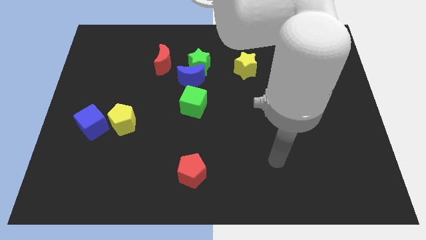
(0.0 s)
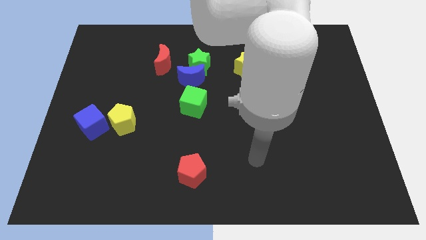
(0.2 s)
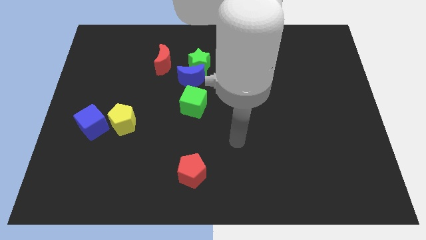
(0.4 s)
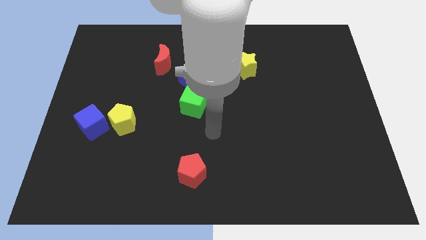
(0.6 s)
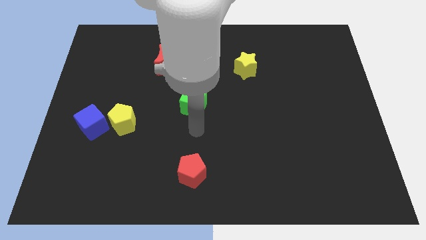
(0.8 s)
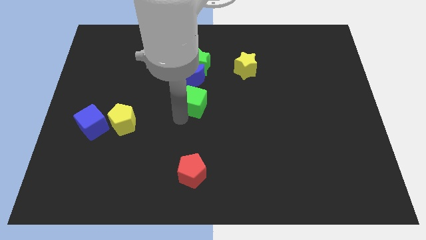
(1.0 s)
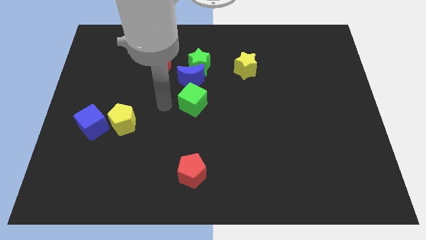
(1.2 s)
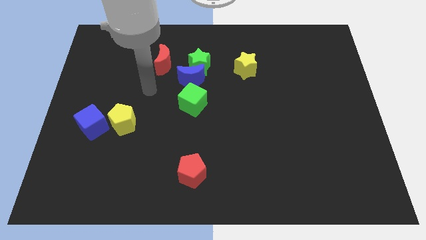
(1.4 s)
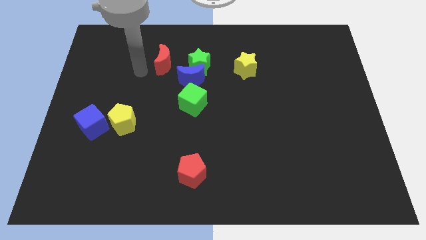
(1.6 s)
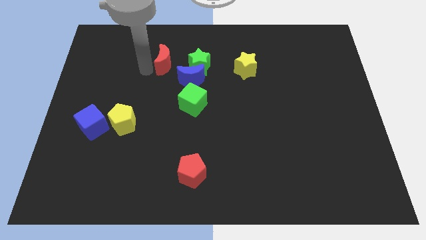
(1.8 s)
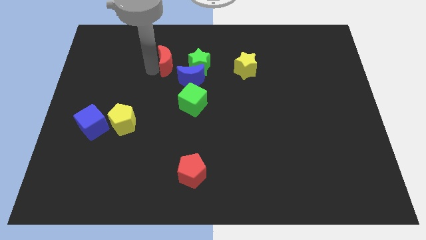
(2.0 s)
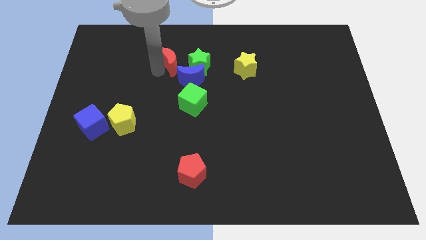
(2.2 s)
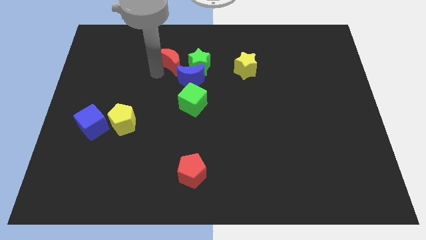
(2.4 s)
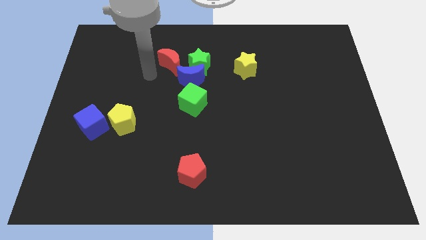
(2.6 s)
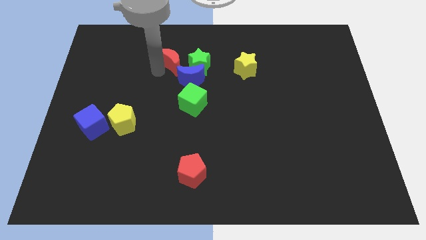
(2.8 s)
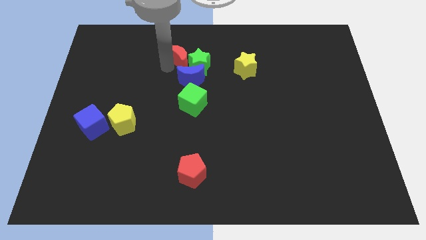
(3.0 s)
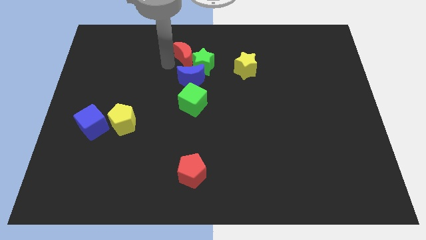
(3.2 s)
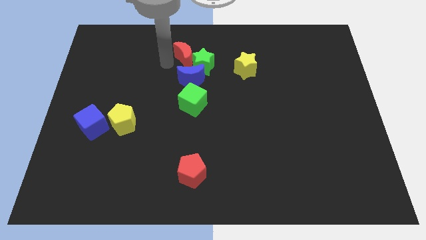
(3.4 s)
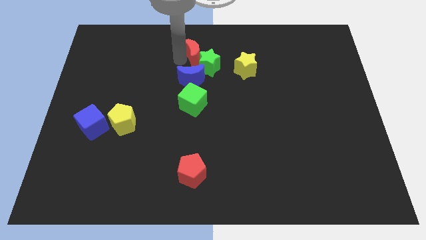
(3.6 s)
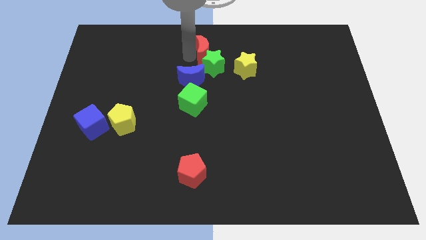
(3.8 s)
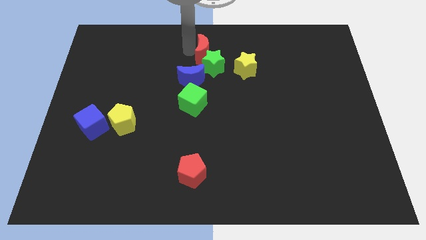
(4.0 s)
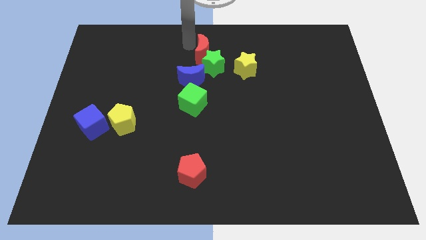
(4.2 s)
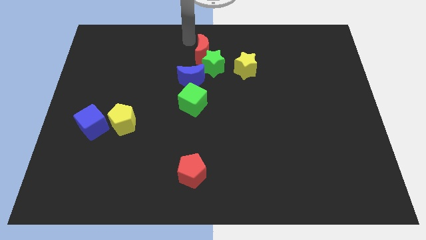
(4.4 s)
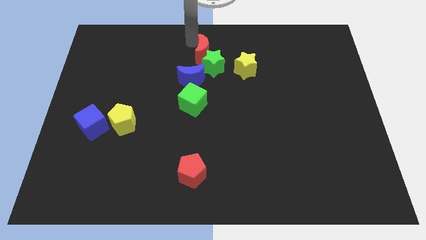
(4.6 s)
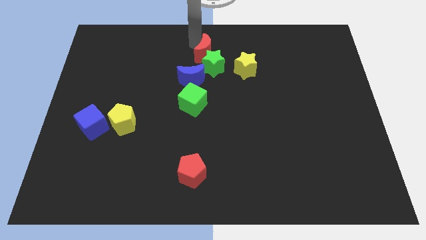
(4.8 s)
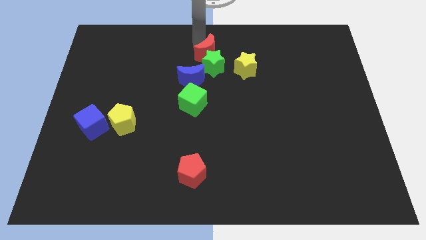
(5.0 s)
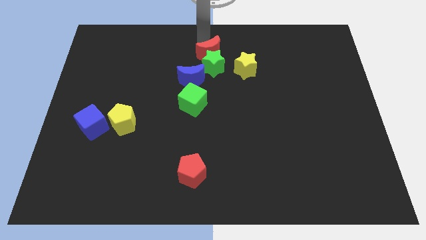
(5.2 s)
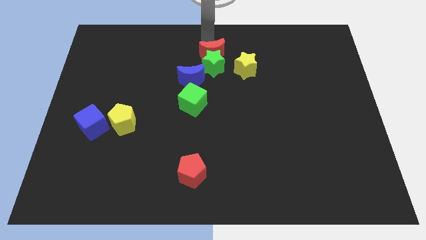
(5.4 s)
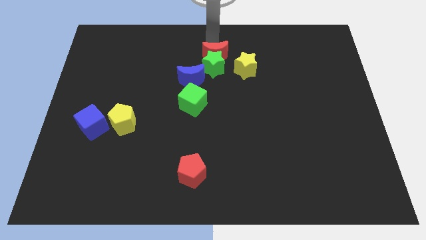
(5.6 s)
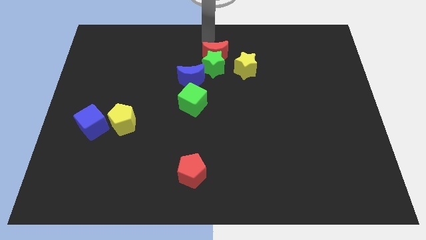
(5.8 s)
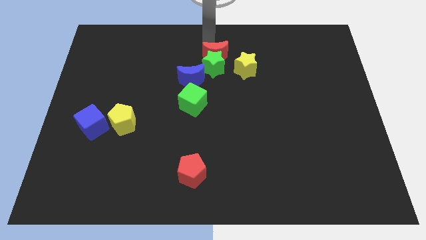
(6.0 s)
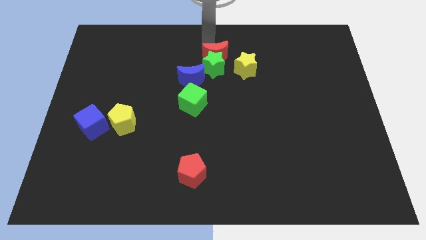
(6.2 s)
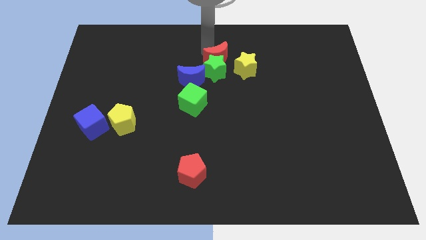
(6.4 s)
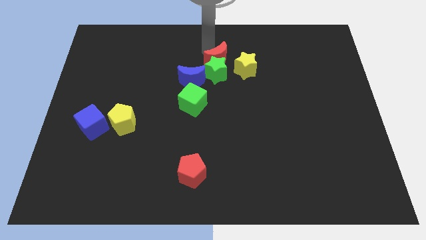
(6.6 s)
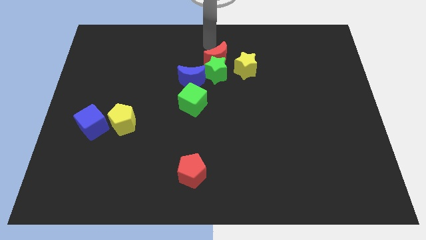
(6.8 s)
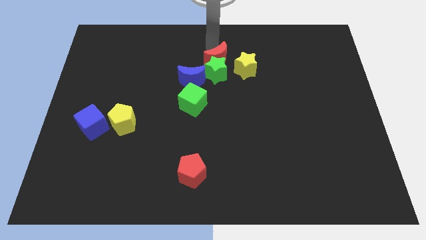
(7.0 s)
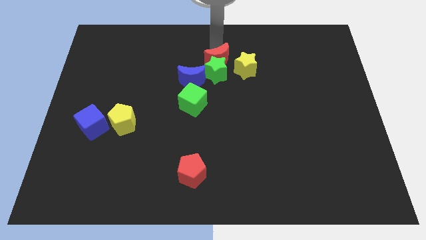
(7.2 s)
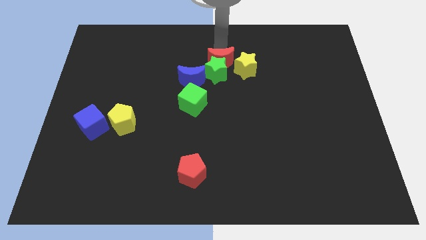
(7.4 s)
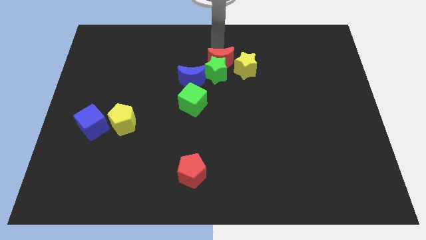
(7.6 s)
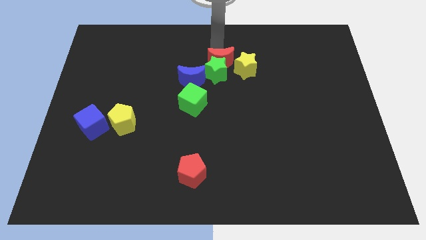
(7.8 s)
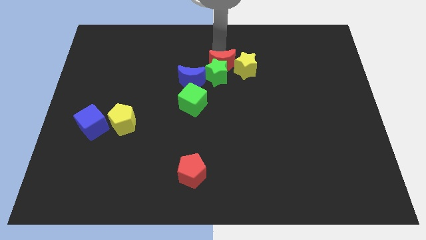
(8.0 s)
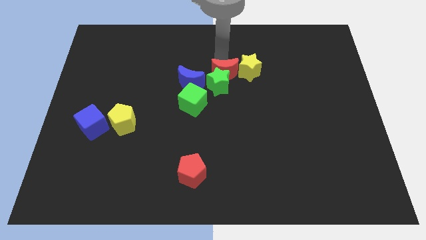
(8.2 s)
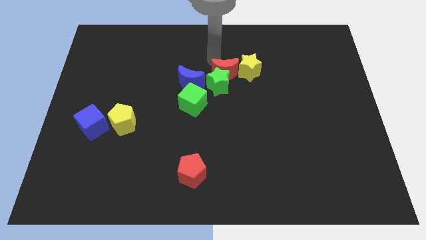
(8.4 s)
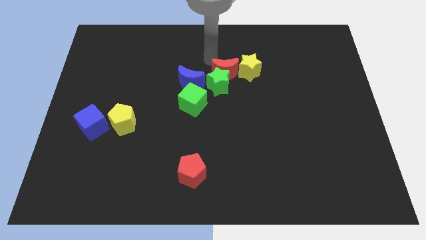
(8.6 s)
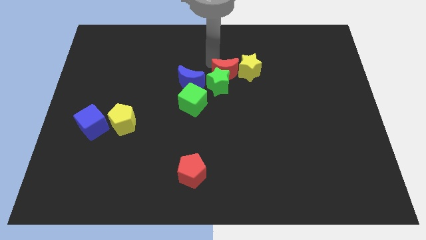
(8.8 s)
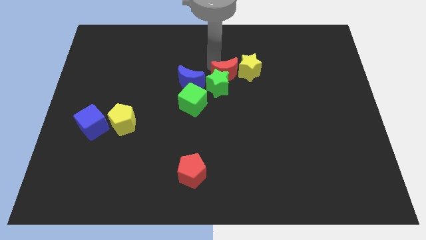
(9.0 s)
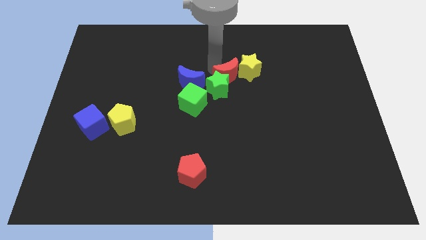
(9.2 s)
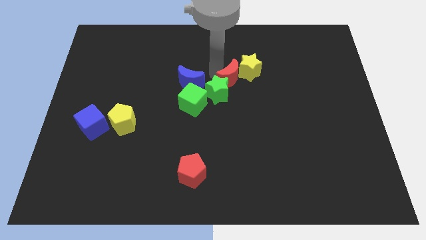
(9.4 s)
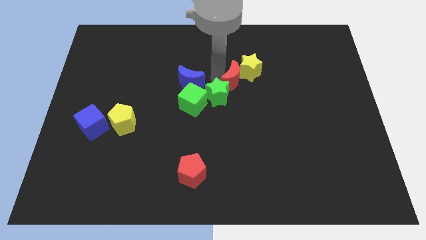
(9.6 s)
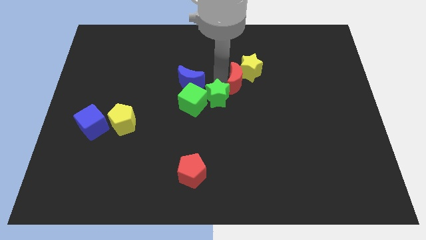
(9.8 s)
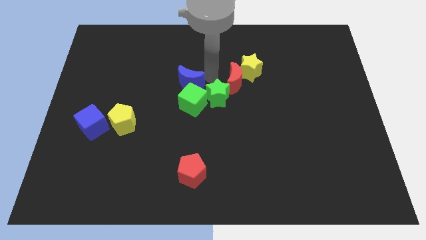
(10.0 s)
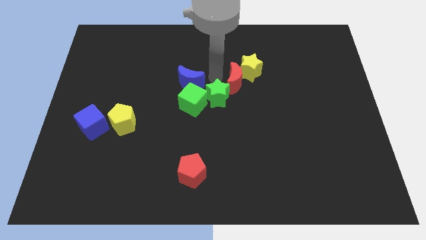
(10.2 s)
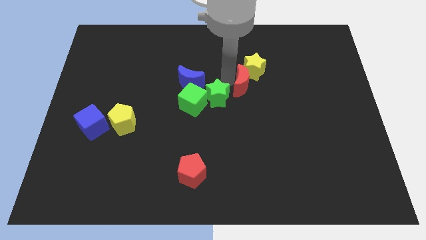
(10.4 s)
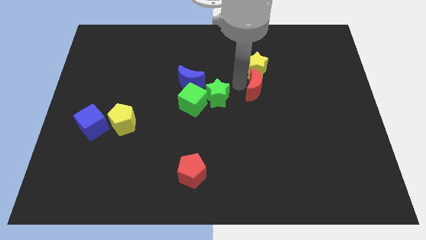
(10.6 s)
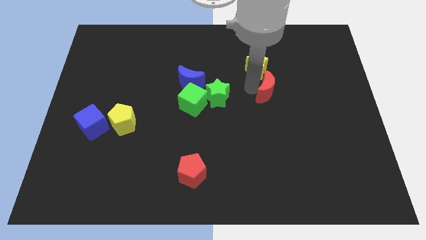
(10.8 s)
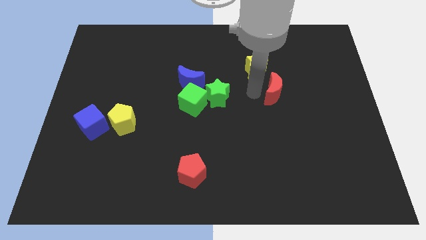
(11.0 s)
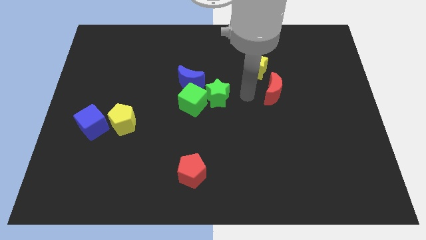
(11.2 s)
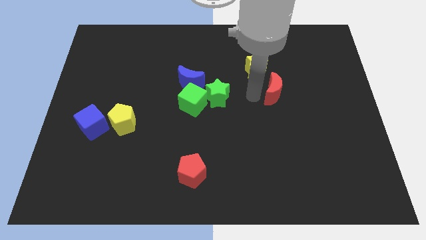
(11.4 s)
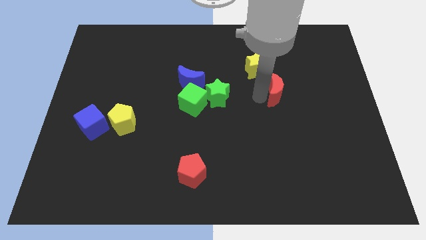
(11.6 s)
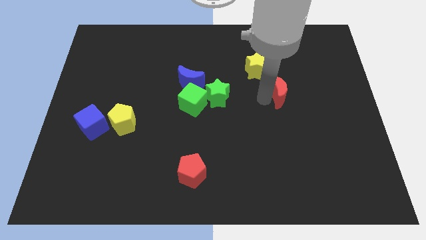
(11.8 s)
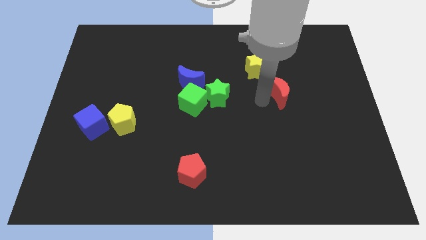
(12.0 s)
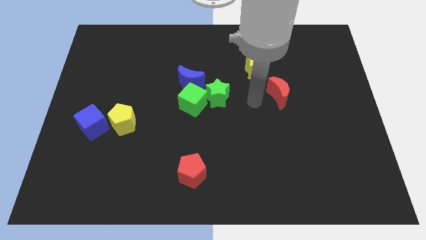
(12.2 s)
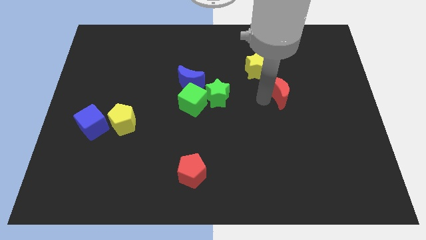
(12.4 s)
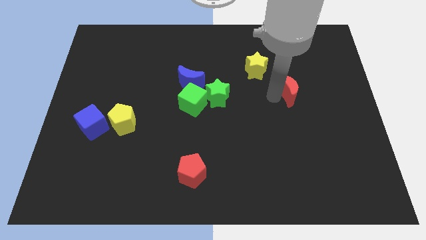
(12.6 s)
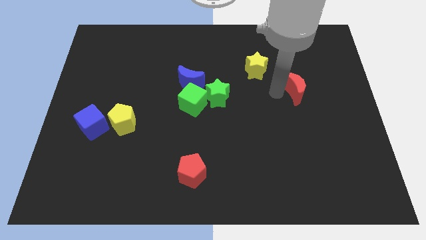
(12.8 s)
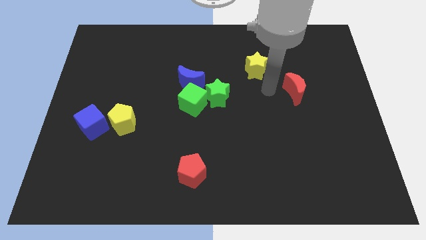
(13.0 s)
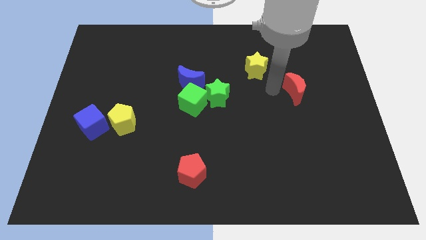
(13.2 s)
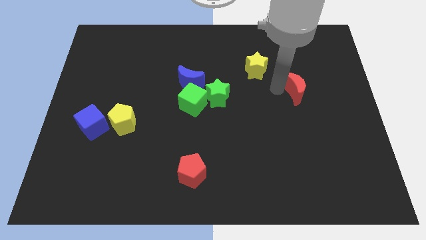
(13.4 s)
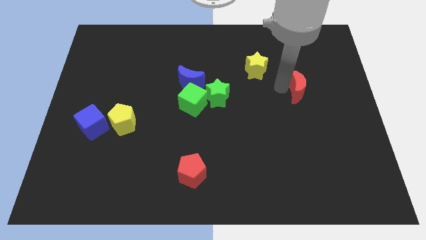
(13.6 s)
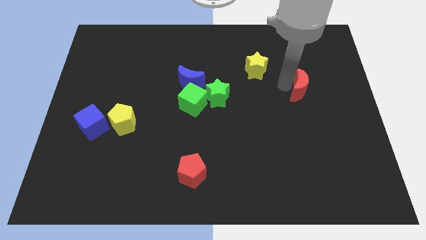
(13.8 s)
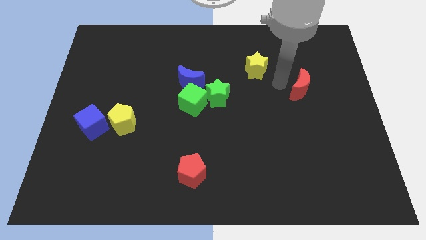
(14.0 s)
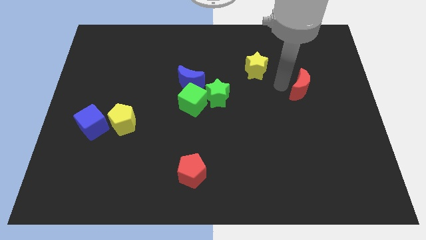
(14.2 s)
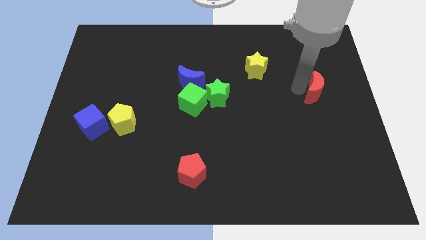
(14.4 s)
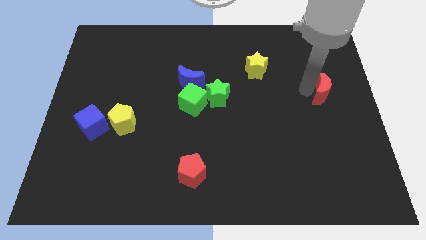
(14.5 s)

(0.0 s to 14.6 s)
put the red moon to the right side
